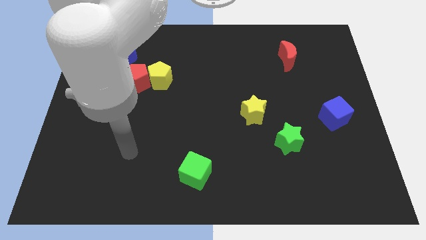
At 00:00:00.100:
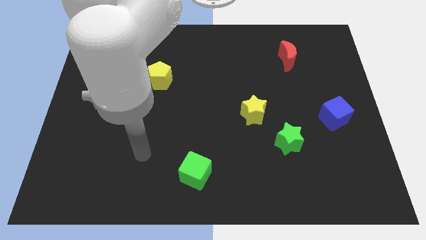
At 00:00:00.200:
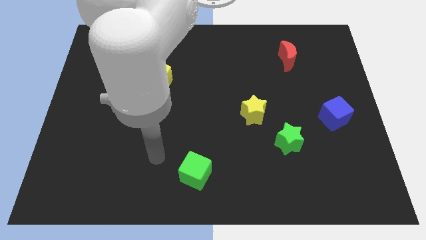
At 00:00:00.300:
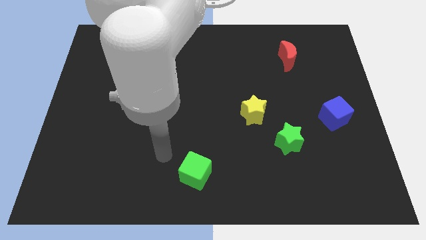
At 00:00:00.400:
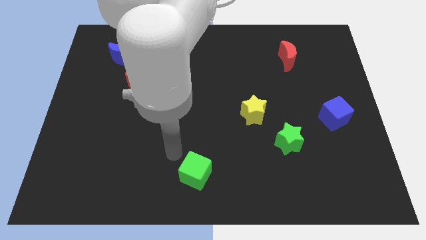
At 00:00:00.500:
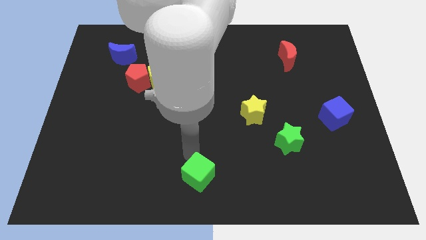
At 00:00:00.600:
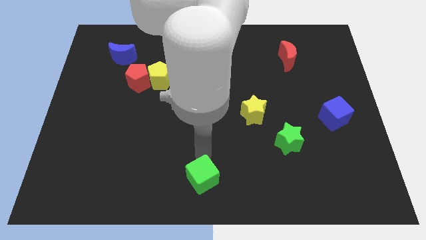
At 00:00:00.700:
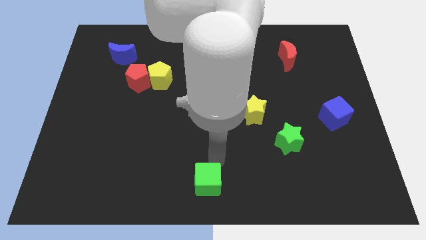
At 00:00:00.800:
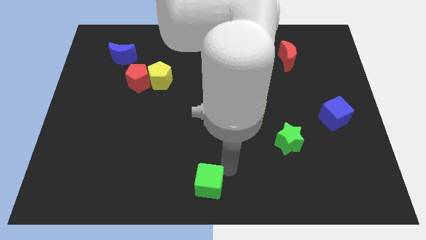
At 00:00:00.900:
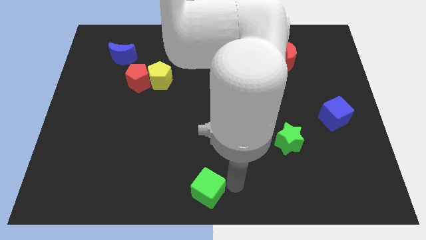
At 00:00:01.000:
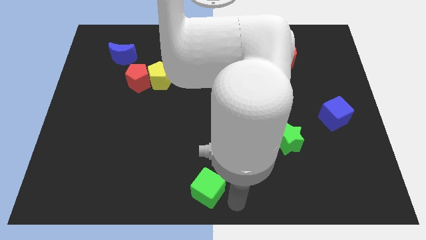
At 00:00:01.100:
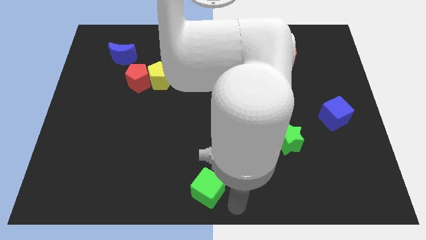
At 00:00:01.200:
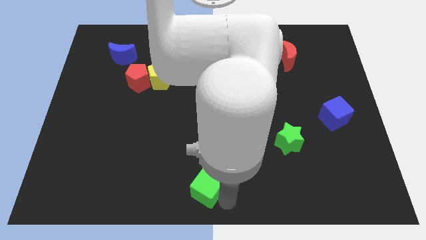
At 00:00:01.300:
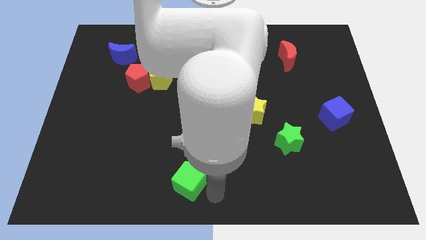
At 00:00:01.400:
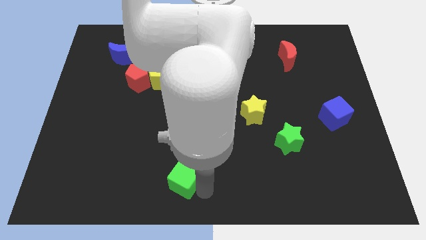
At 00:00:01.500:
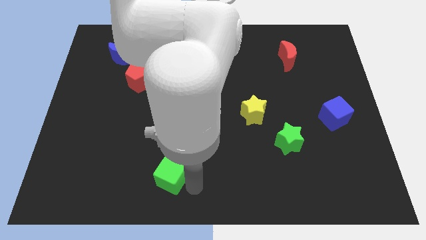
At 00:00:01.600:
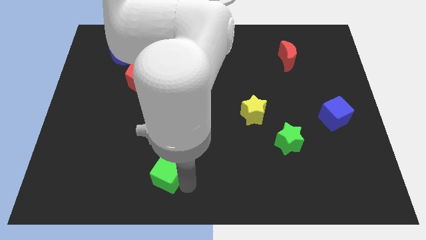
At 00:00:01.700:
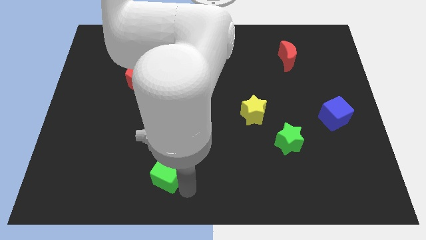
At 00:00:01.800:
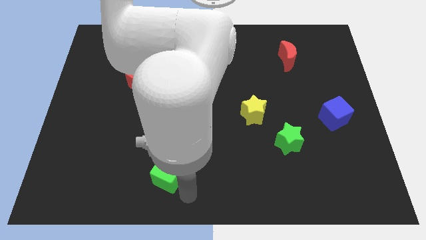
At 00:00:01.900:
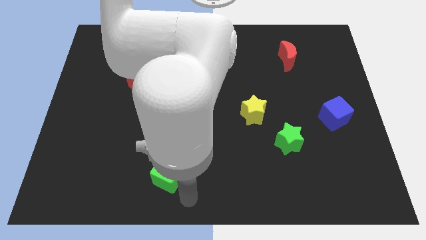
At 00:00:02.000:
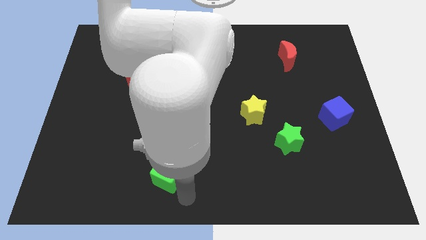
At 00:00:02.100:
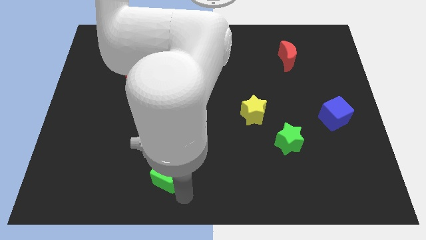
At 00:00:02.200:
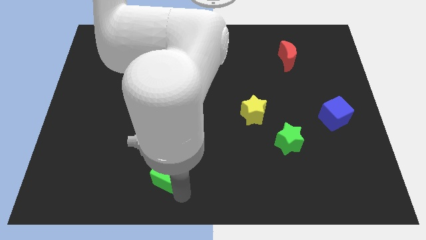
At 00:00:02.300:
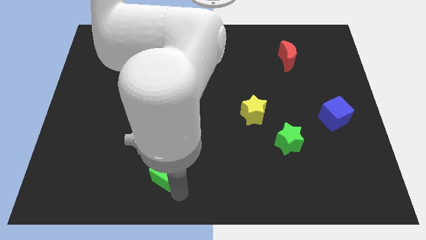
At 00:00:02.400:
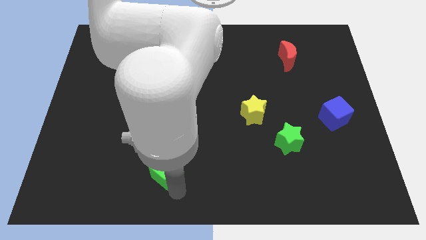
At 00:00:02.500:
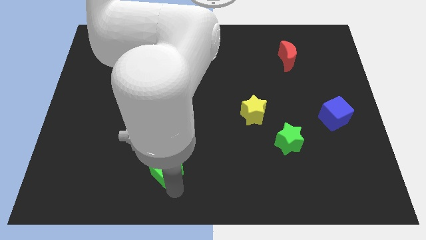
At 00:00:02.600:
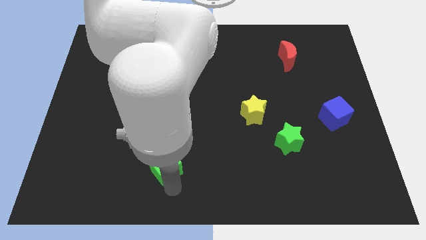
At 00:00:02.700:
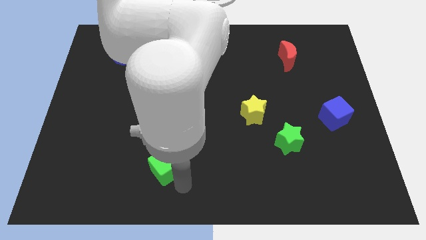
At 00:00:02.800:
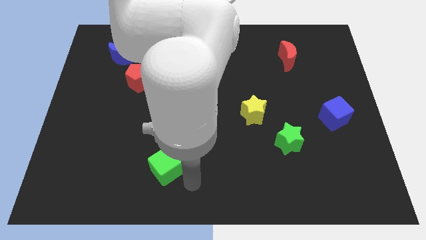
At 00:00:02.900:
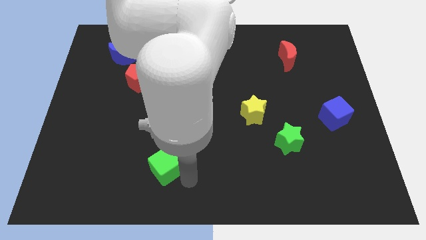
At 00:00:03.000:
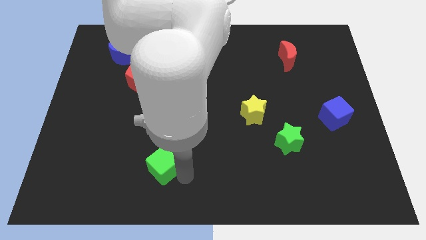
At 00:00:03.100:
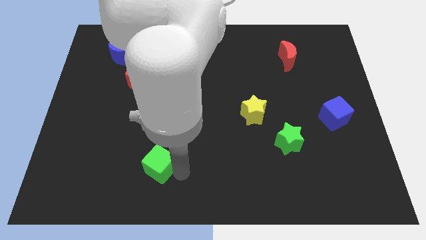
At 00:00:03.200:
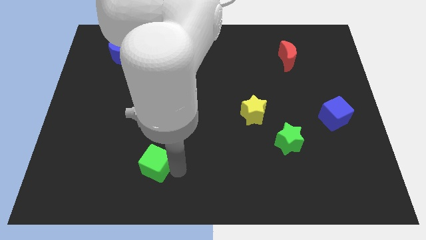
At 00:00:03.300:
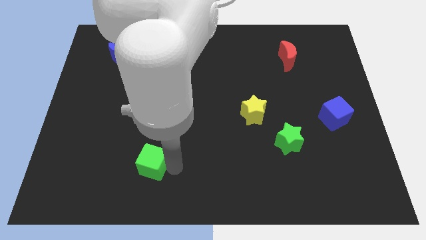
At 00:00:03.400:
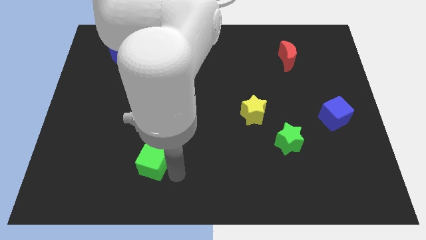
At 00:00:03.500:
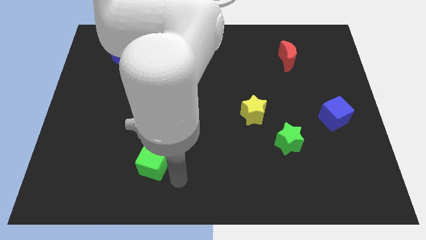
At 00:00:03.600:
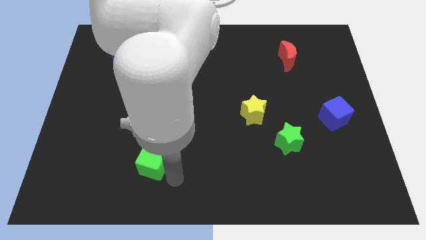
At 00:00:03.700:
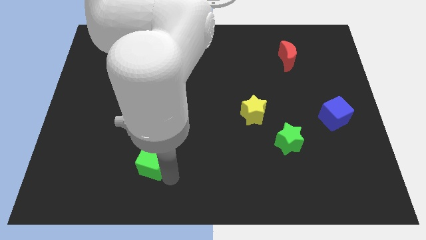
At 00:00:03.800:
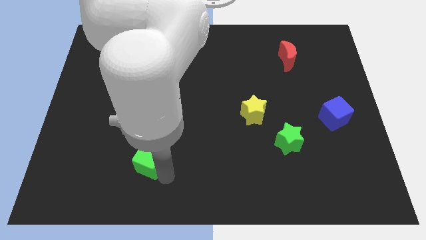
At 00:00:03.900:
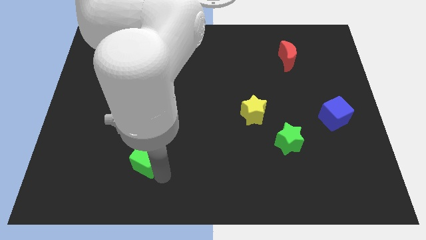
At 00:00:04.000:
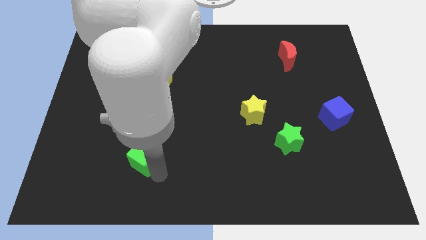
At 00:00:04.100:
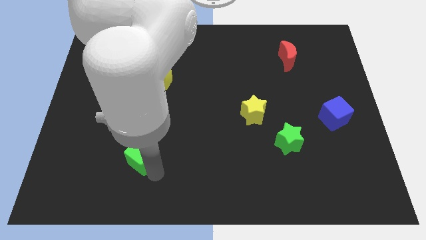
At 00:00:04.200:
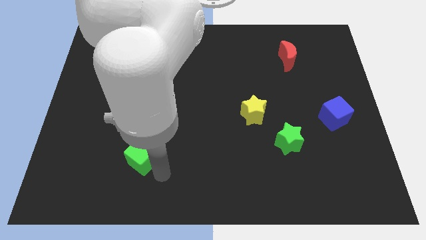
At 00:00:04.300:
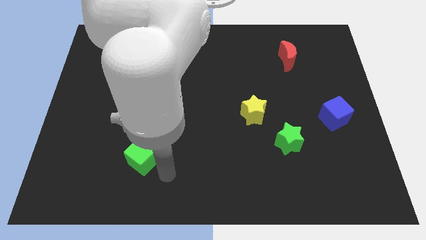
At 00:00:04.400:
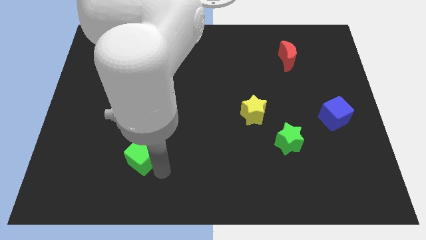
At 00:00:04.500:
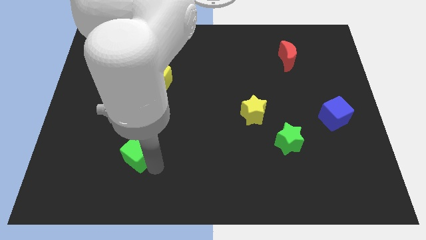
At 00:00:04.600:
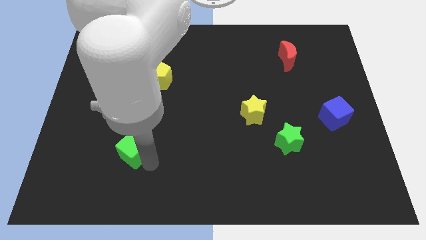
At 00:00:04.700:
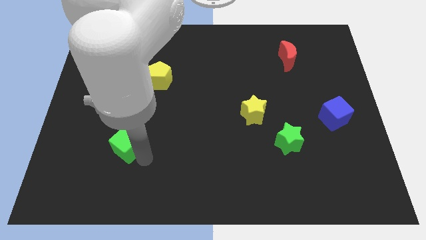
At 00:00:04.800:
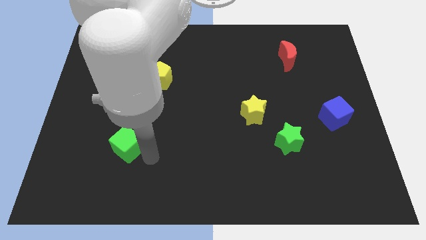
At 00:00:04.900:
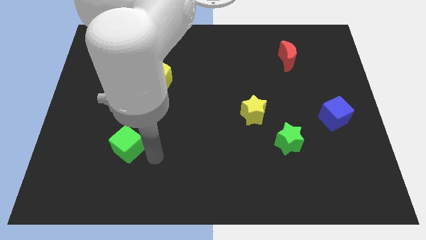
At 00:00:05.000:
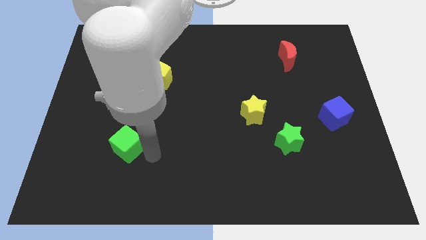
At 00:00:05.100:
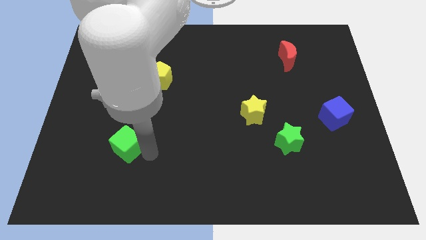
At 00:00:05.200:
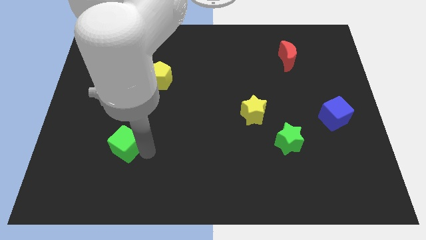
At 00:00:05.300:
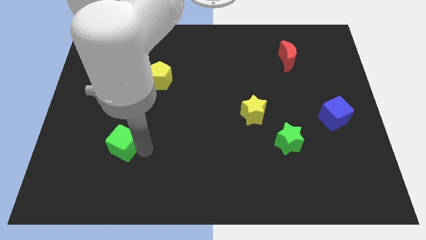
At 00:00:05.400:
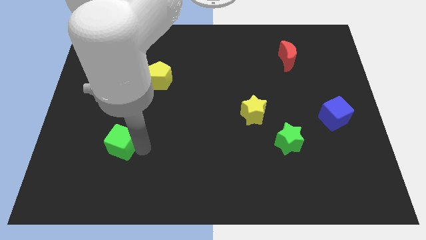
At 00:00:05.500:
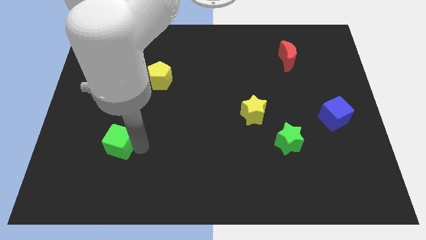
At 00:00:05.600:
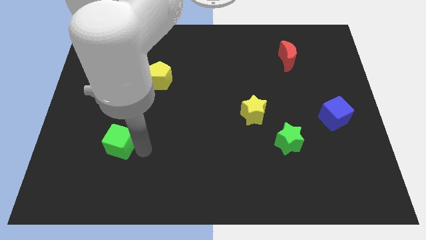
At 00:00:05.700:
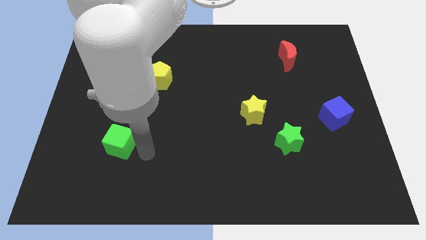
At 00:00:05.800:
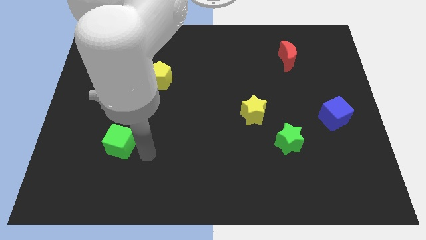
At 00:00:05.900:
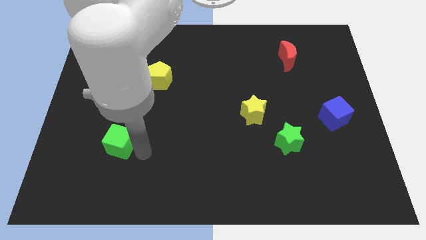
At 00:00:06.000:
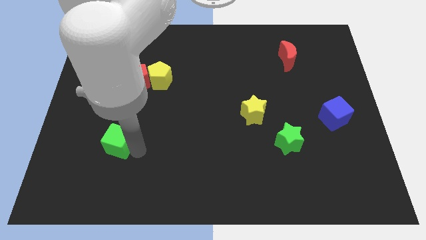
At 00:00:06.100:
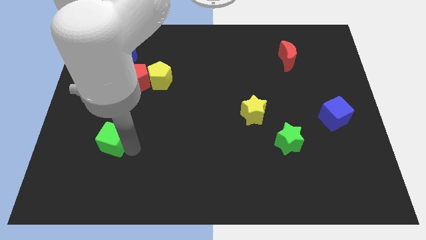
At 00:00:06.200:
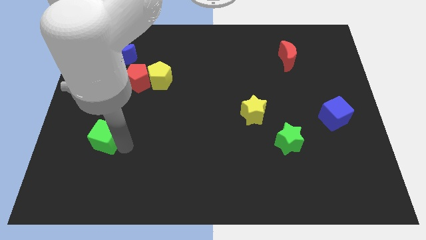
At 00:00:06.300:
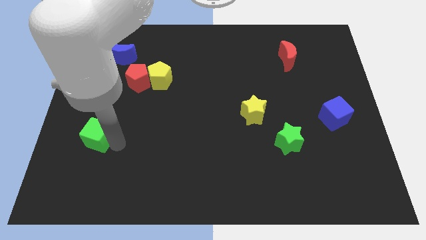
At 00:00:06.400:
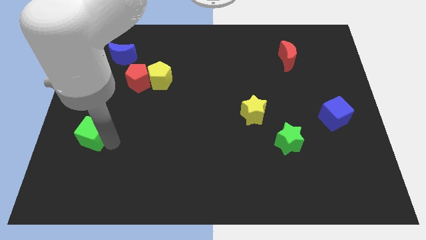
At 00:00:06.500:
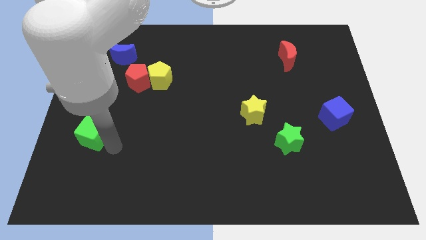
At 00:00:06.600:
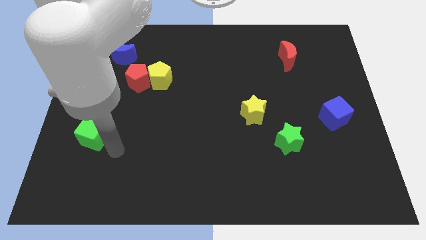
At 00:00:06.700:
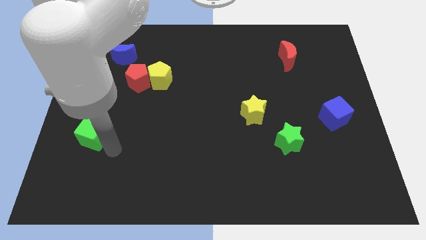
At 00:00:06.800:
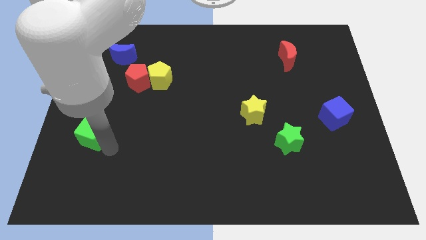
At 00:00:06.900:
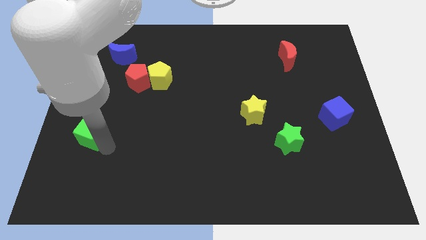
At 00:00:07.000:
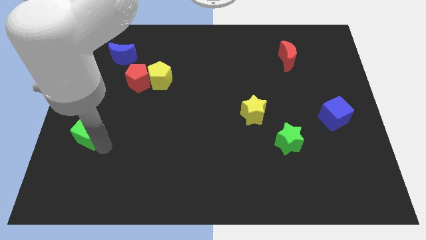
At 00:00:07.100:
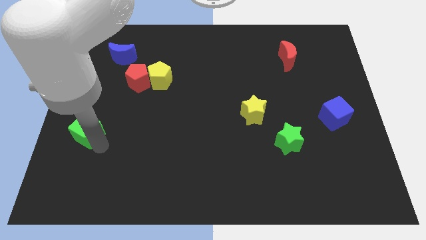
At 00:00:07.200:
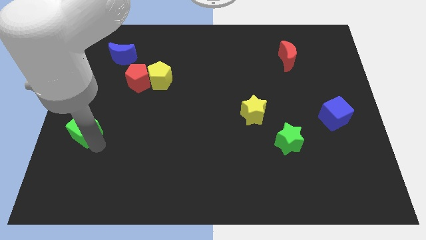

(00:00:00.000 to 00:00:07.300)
slide the green cube to the left side of the board

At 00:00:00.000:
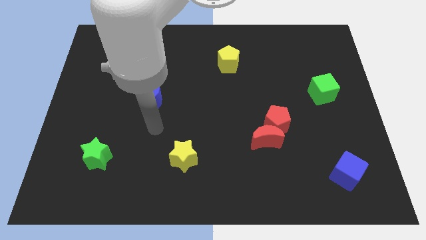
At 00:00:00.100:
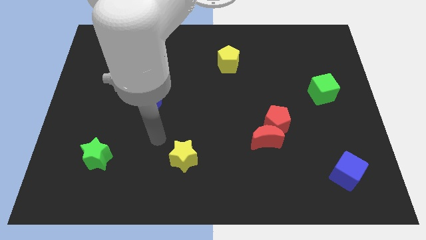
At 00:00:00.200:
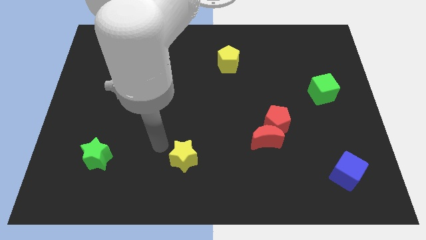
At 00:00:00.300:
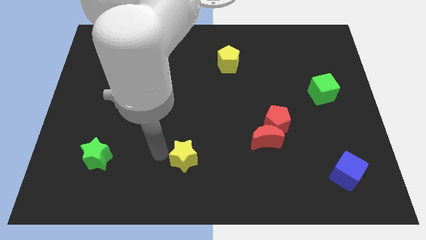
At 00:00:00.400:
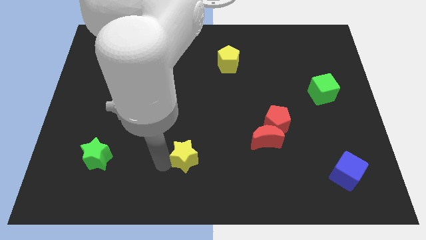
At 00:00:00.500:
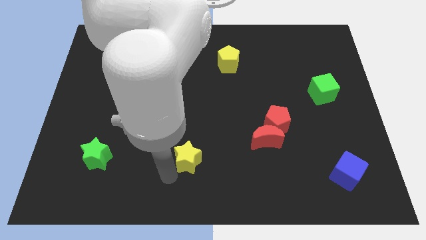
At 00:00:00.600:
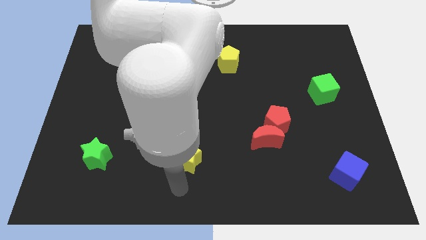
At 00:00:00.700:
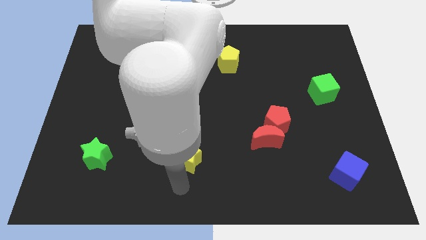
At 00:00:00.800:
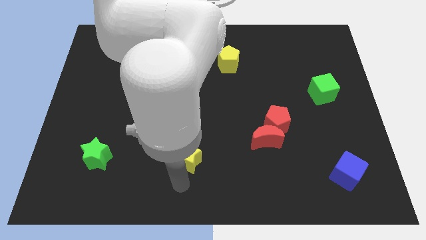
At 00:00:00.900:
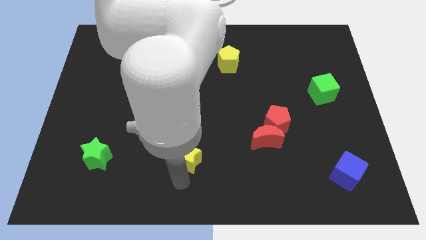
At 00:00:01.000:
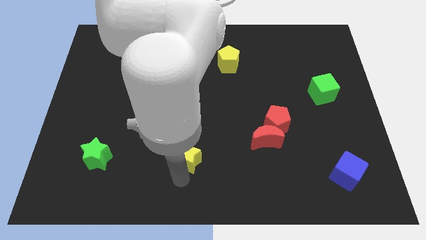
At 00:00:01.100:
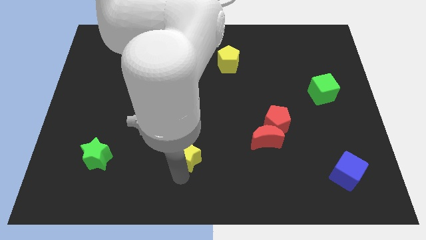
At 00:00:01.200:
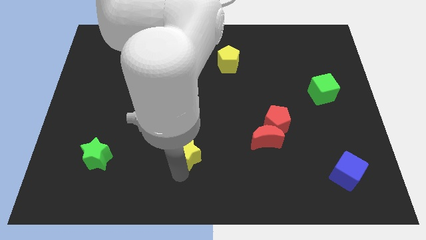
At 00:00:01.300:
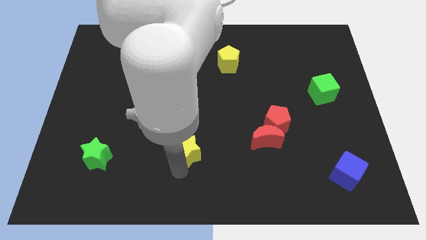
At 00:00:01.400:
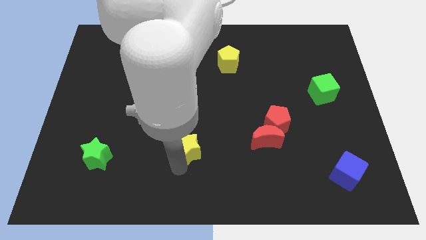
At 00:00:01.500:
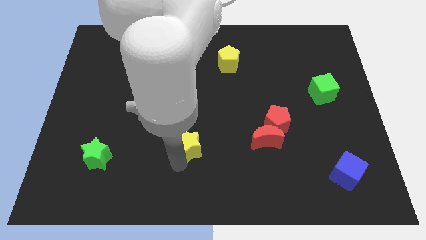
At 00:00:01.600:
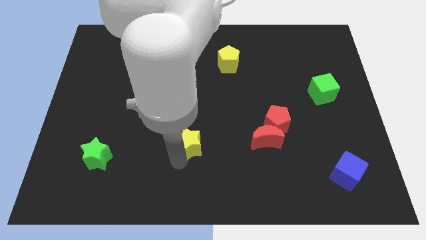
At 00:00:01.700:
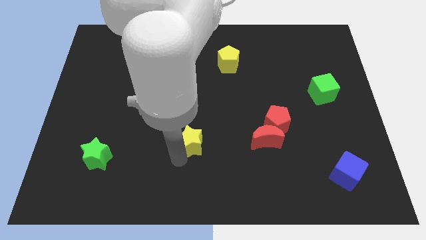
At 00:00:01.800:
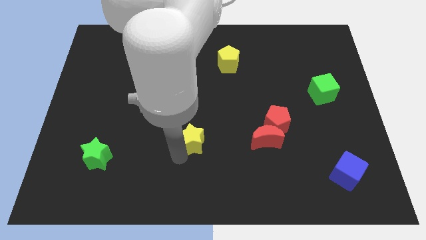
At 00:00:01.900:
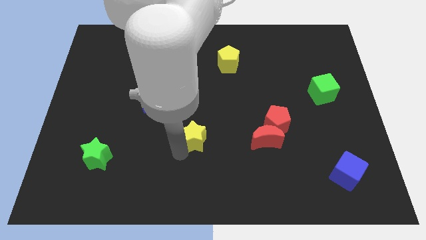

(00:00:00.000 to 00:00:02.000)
slide the yellow star to the middle
